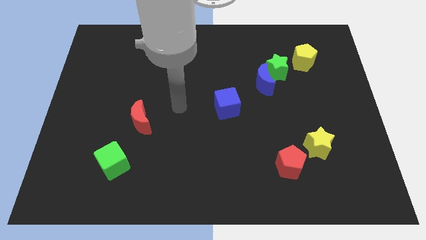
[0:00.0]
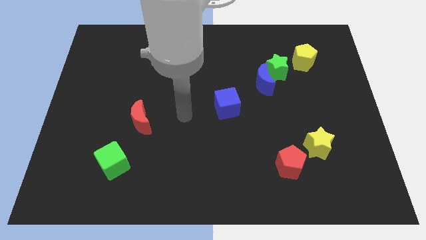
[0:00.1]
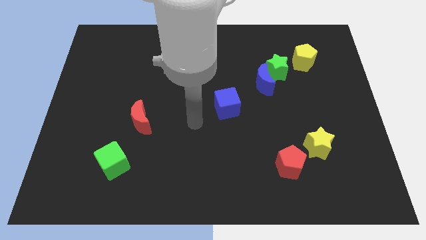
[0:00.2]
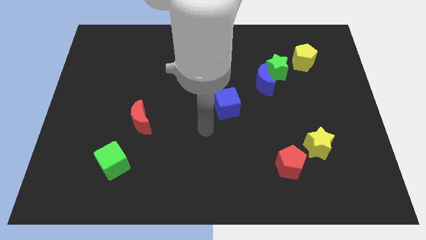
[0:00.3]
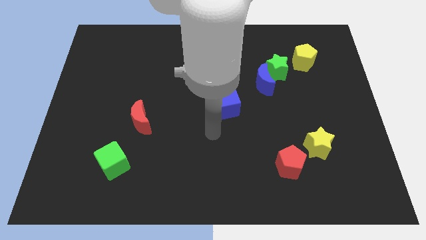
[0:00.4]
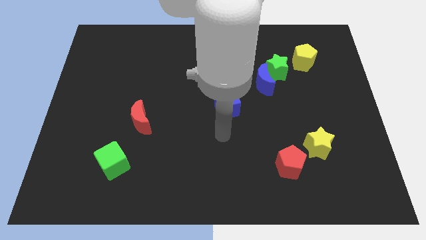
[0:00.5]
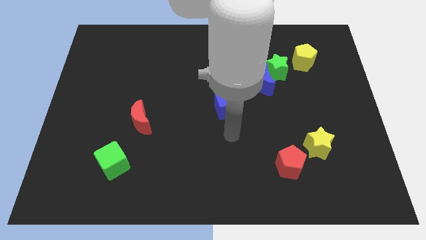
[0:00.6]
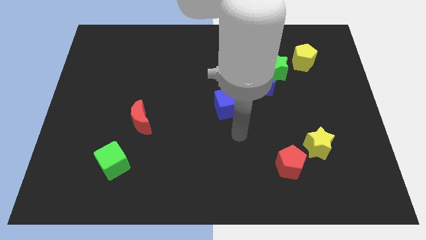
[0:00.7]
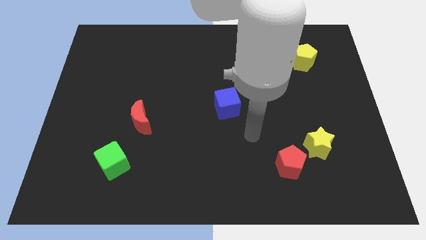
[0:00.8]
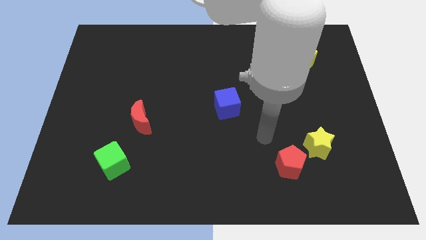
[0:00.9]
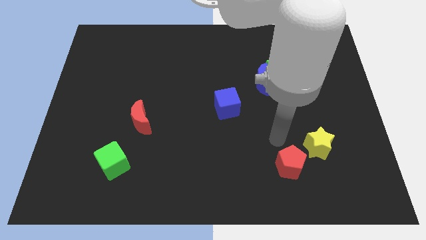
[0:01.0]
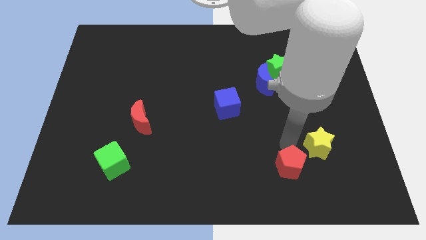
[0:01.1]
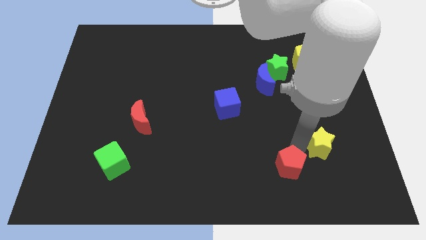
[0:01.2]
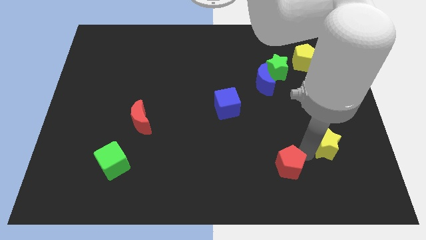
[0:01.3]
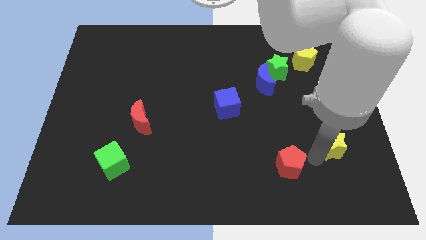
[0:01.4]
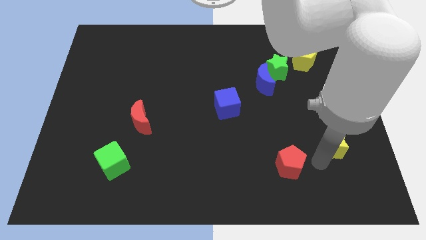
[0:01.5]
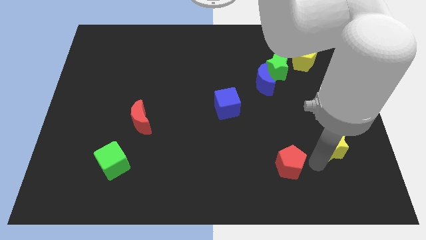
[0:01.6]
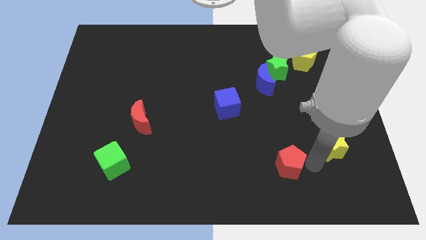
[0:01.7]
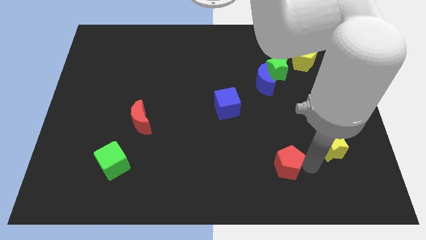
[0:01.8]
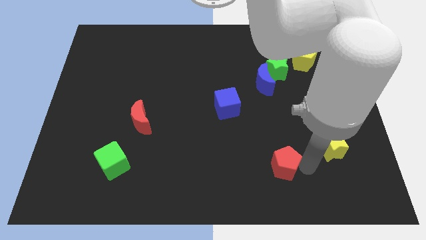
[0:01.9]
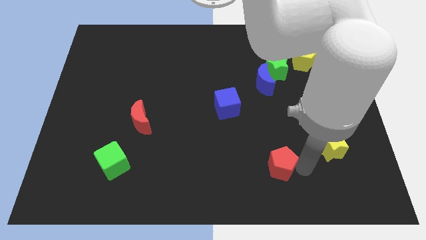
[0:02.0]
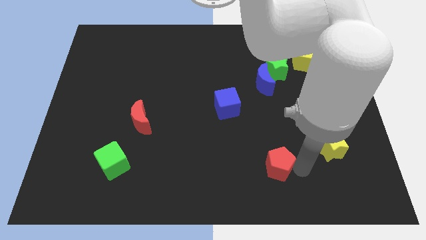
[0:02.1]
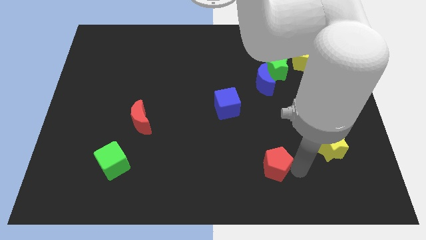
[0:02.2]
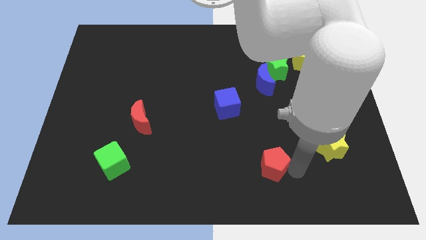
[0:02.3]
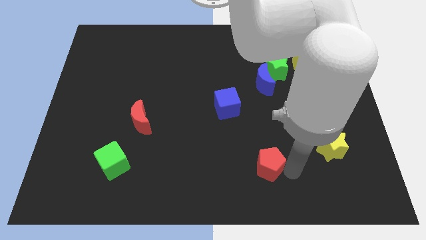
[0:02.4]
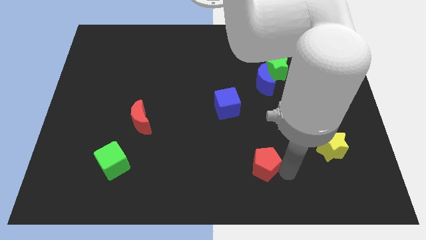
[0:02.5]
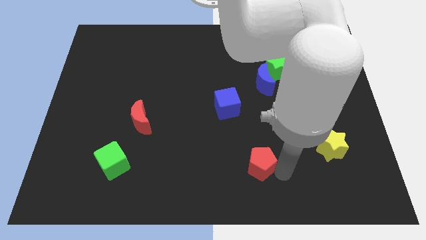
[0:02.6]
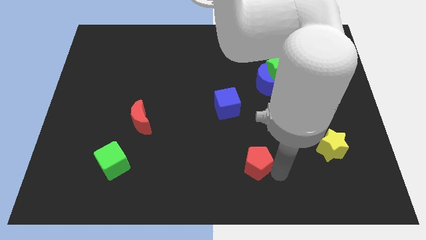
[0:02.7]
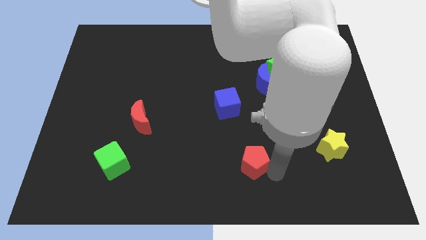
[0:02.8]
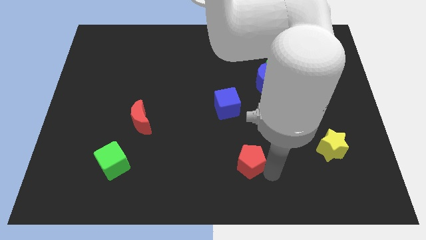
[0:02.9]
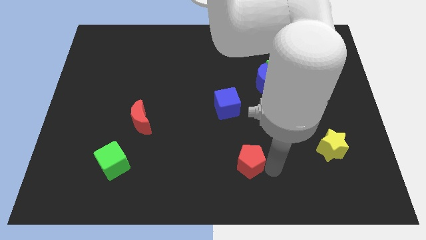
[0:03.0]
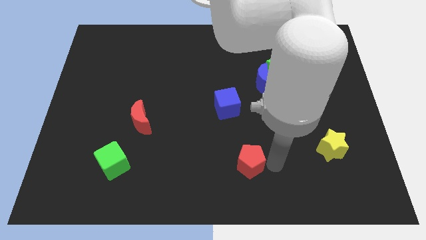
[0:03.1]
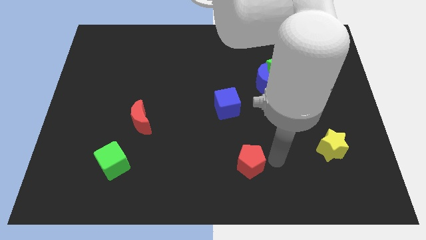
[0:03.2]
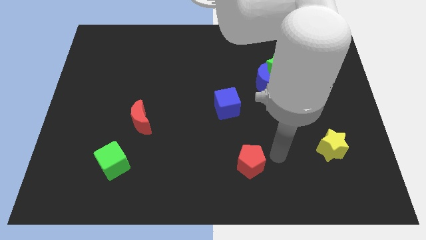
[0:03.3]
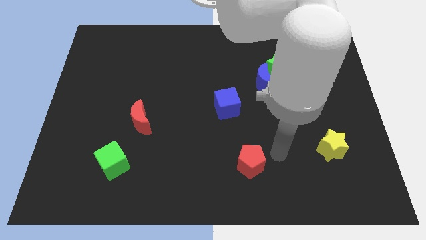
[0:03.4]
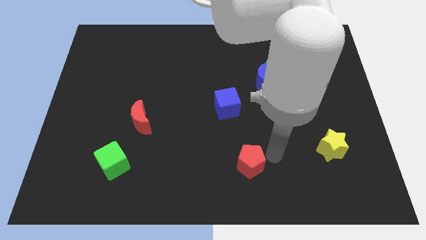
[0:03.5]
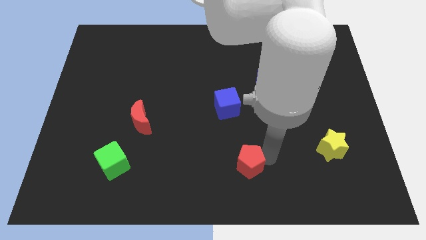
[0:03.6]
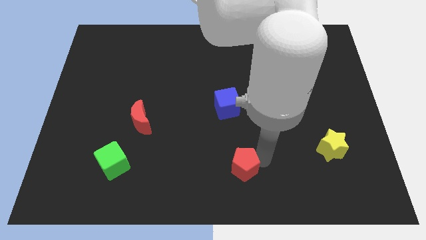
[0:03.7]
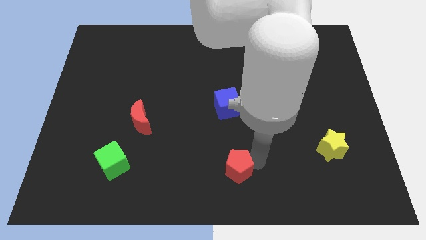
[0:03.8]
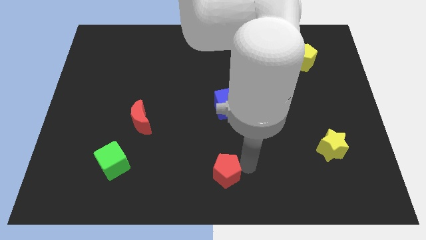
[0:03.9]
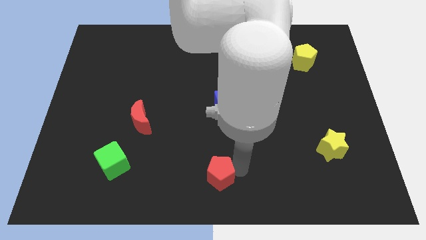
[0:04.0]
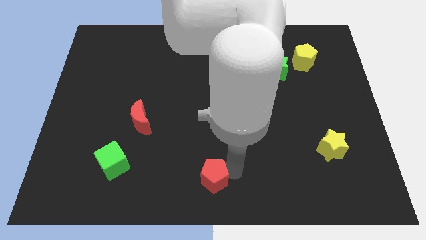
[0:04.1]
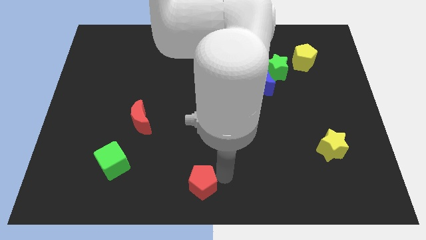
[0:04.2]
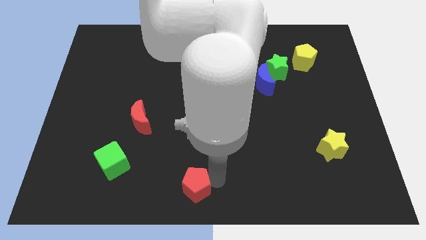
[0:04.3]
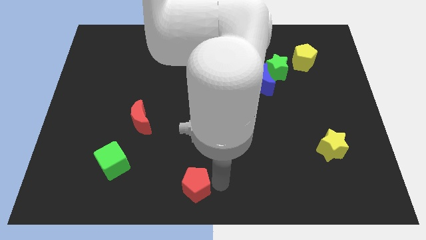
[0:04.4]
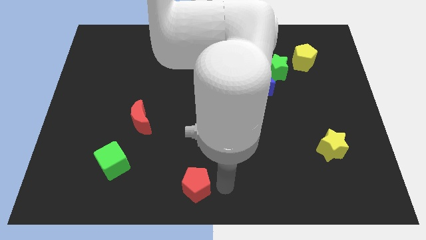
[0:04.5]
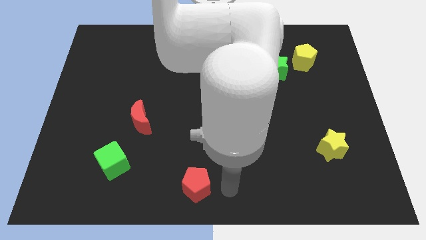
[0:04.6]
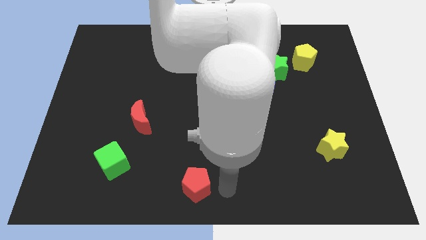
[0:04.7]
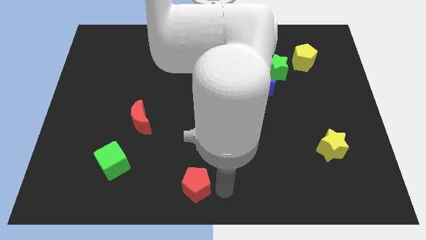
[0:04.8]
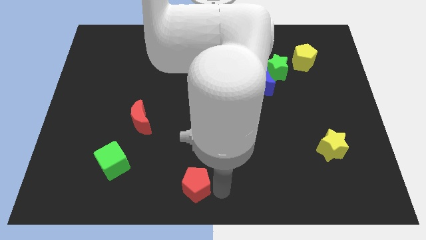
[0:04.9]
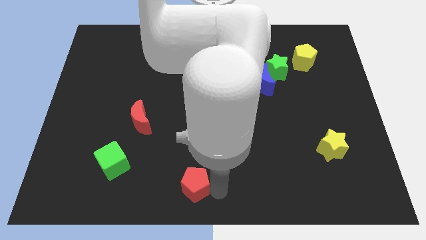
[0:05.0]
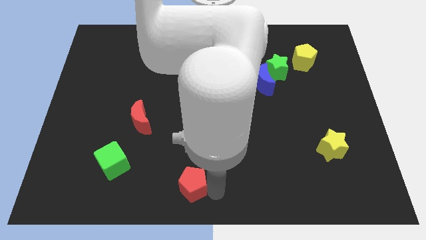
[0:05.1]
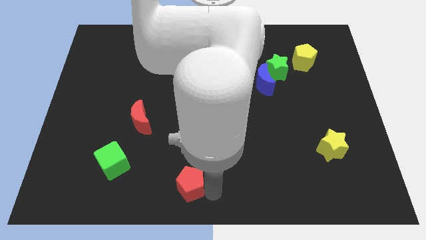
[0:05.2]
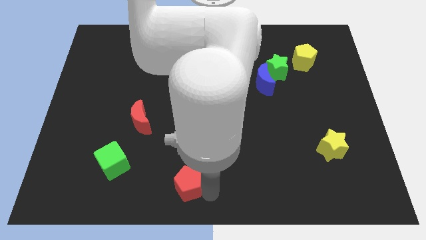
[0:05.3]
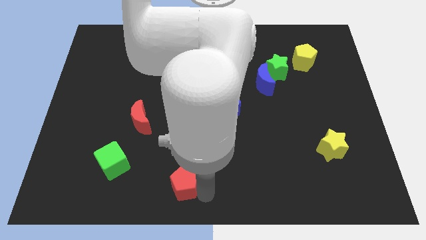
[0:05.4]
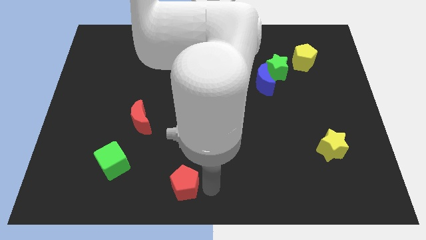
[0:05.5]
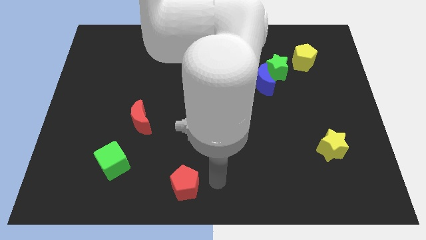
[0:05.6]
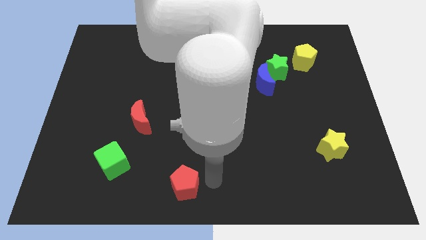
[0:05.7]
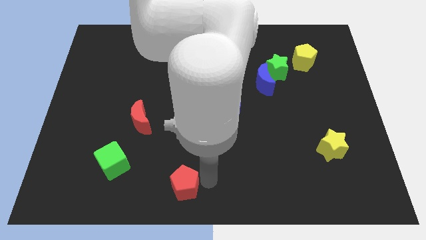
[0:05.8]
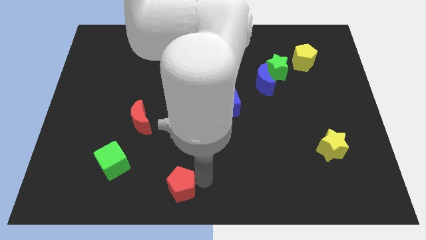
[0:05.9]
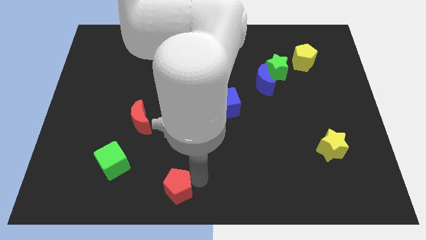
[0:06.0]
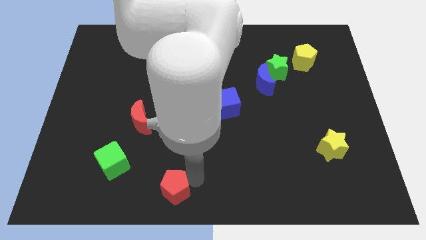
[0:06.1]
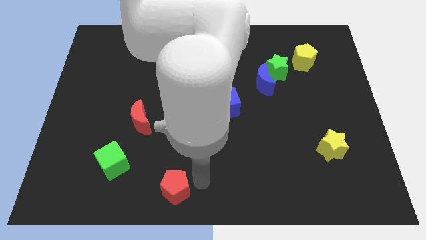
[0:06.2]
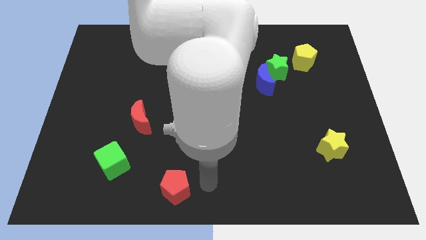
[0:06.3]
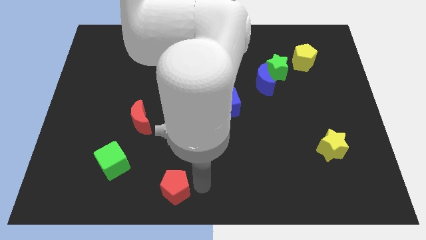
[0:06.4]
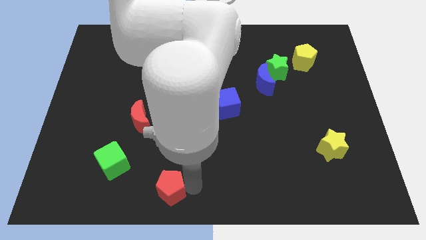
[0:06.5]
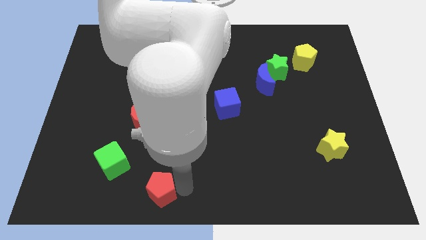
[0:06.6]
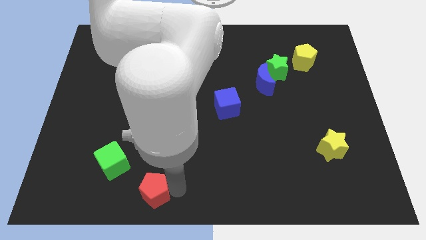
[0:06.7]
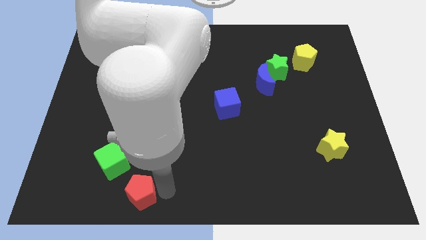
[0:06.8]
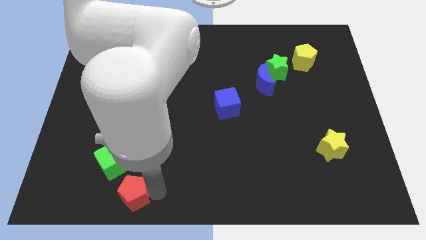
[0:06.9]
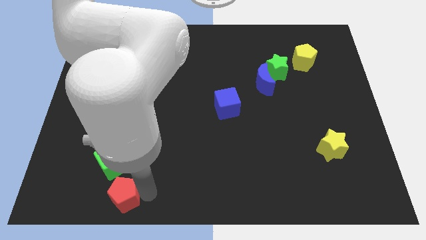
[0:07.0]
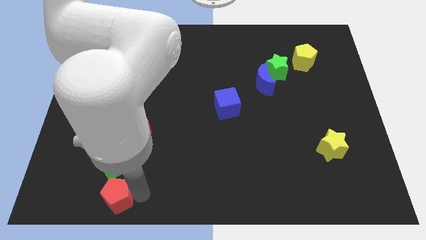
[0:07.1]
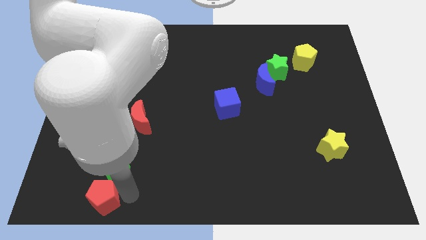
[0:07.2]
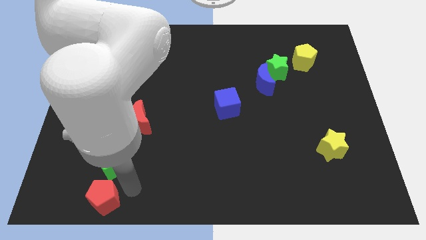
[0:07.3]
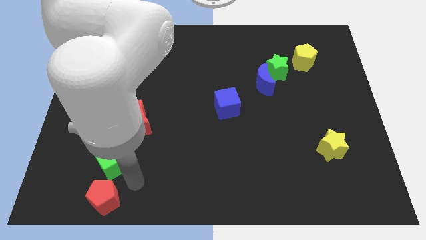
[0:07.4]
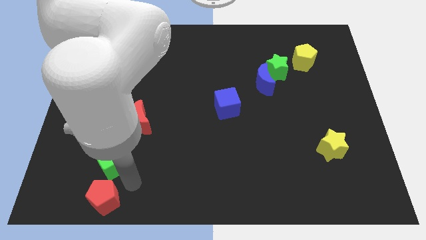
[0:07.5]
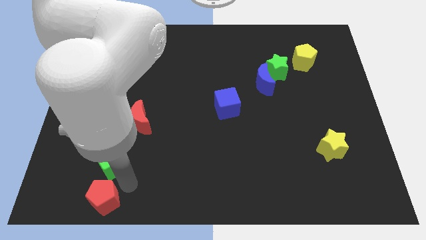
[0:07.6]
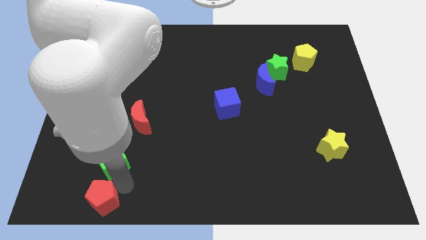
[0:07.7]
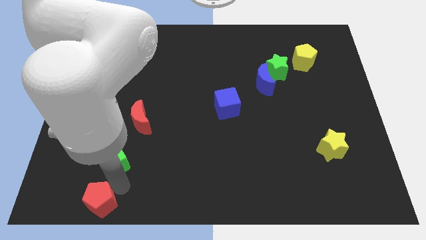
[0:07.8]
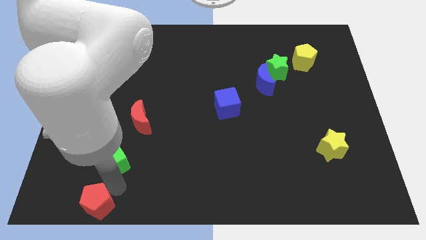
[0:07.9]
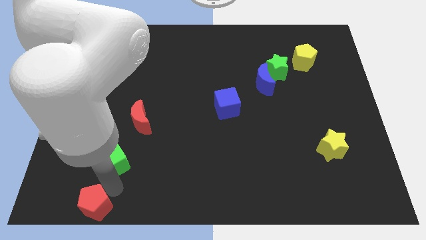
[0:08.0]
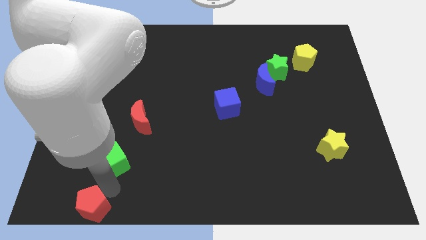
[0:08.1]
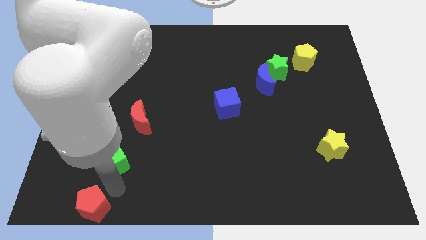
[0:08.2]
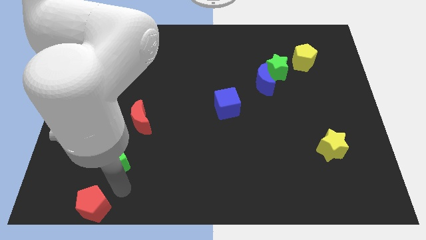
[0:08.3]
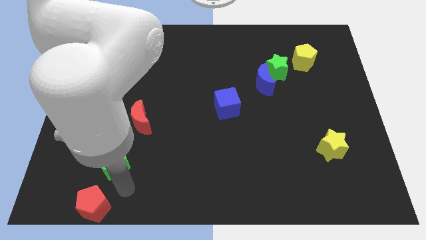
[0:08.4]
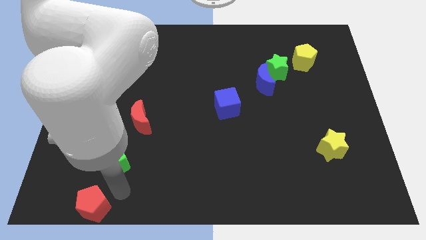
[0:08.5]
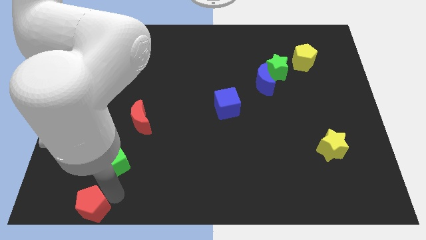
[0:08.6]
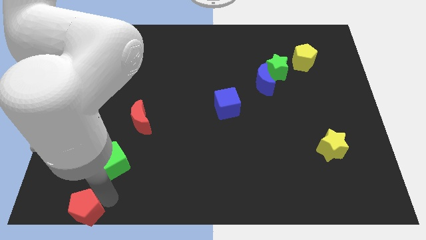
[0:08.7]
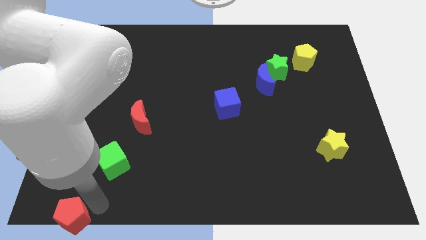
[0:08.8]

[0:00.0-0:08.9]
slide the red pentagon to the bottom left
